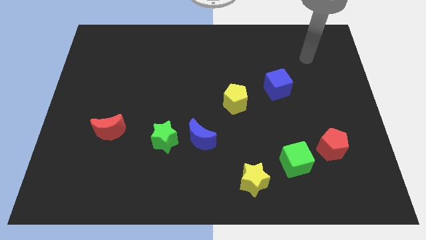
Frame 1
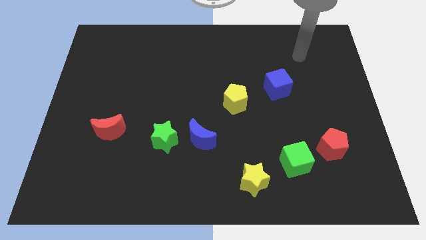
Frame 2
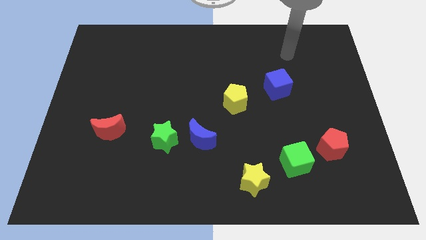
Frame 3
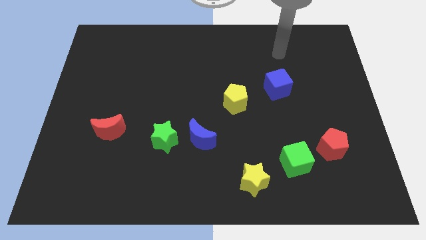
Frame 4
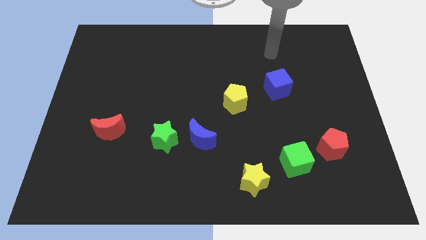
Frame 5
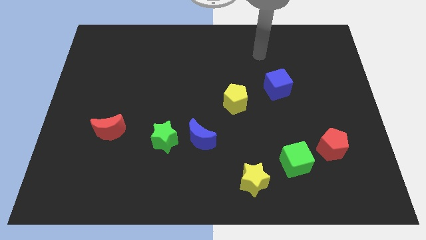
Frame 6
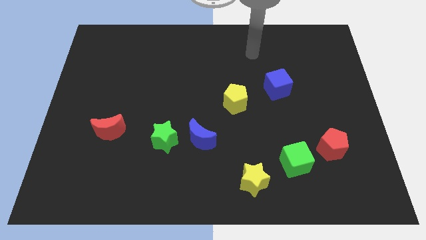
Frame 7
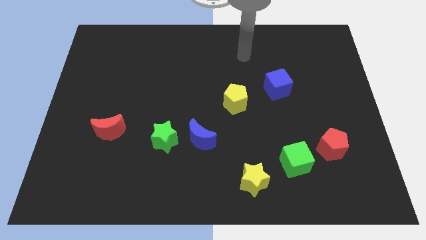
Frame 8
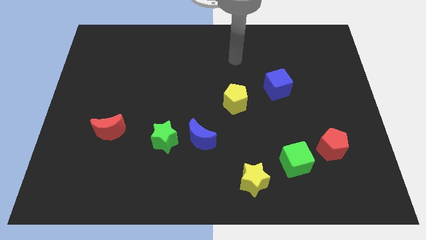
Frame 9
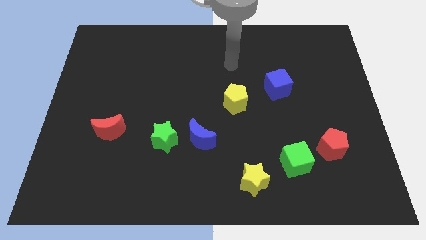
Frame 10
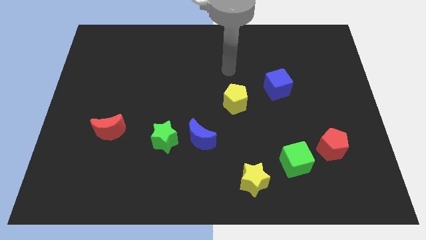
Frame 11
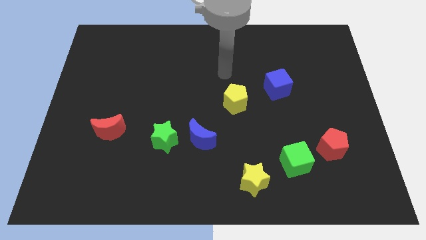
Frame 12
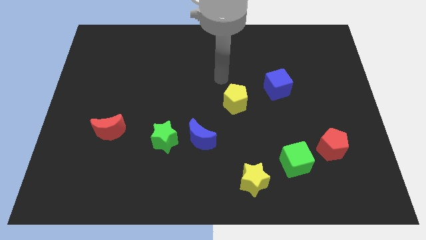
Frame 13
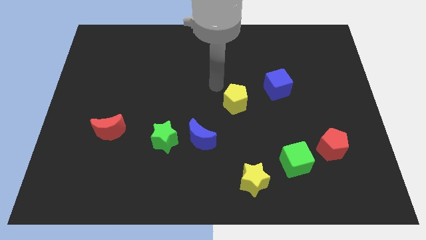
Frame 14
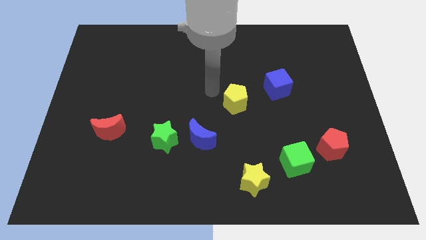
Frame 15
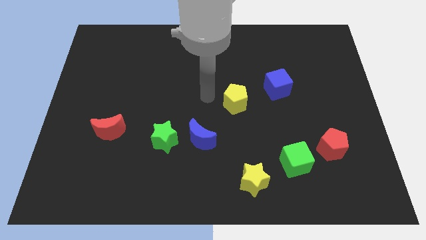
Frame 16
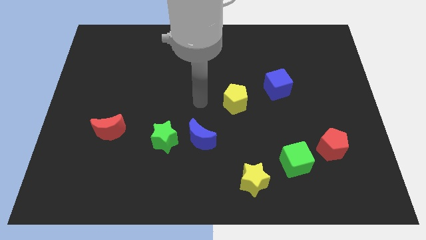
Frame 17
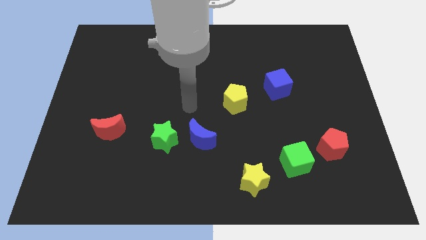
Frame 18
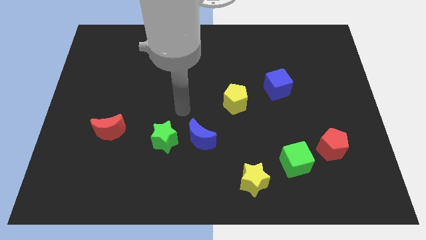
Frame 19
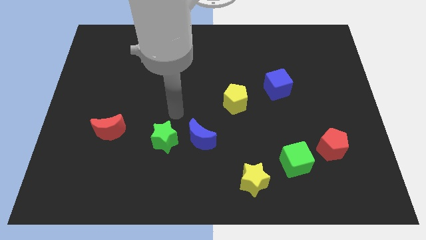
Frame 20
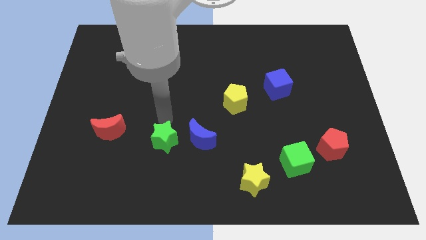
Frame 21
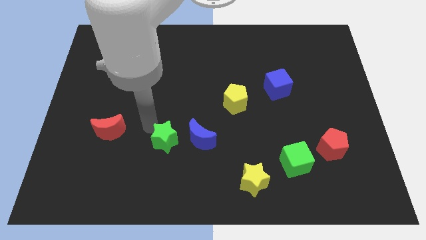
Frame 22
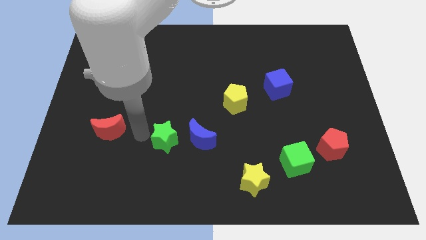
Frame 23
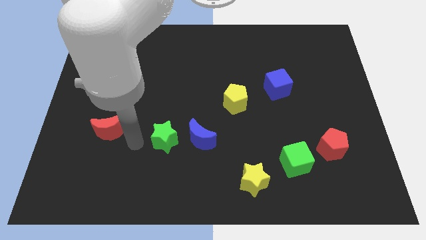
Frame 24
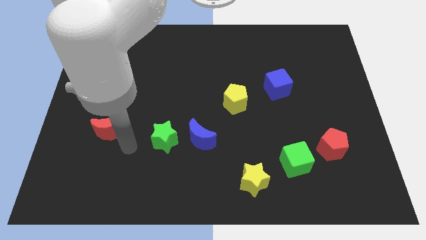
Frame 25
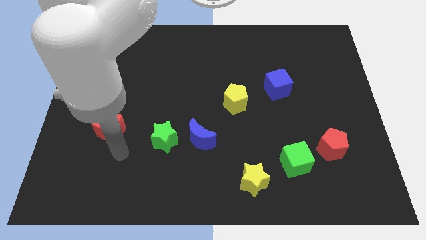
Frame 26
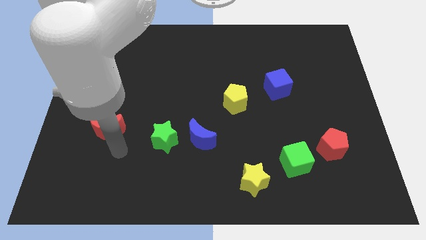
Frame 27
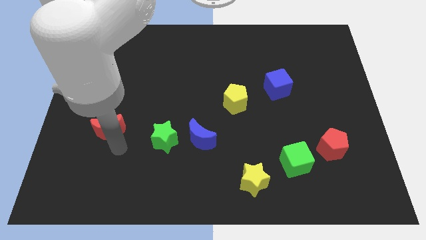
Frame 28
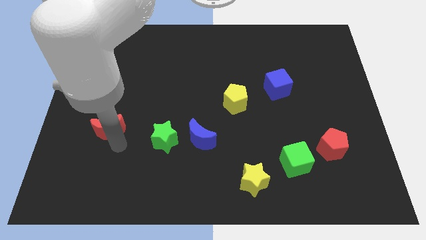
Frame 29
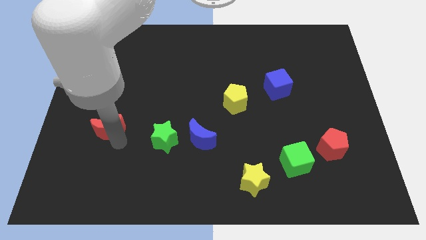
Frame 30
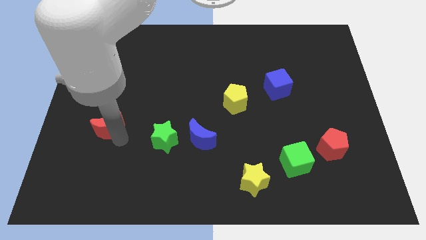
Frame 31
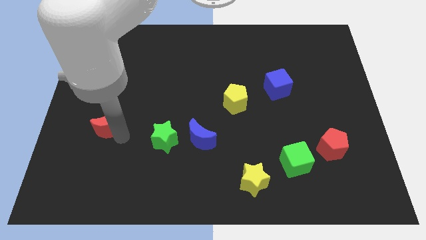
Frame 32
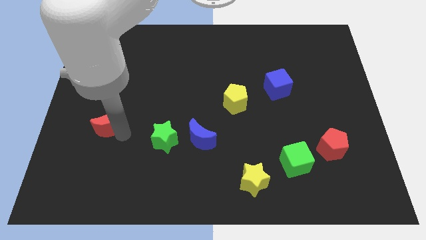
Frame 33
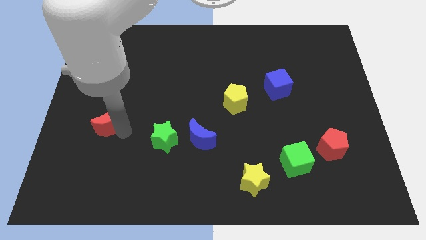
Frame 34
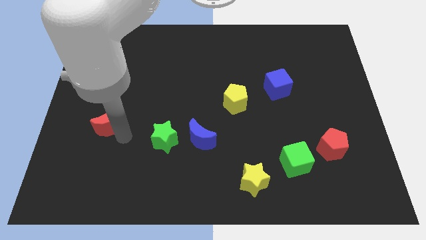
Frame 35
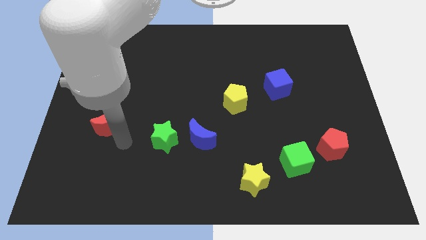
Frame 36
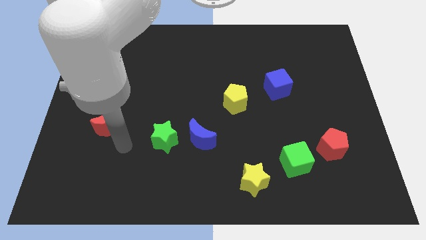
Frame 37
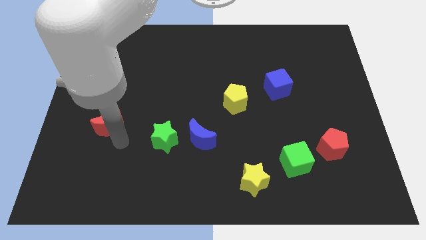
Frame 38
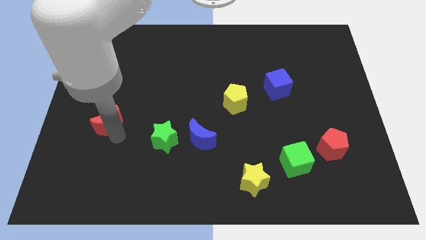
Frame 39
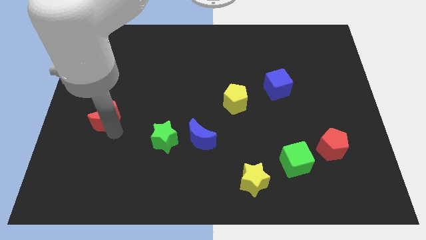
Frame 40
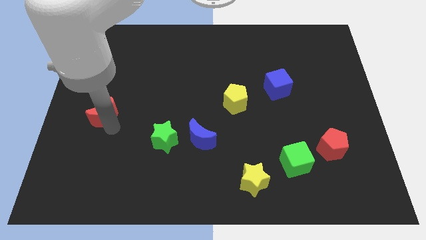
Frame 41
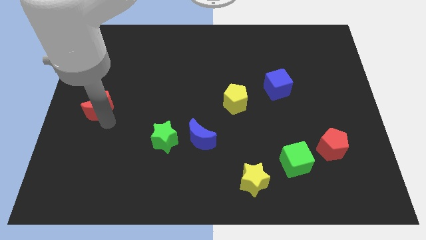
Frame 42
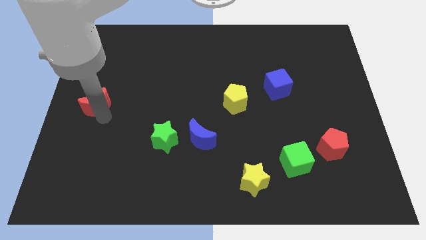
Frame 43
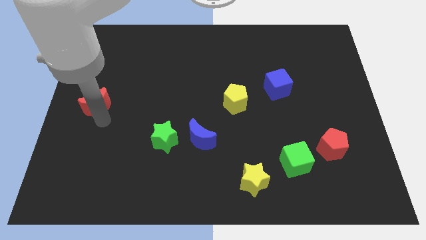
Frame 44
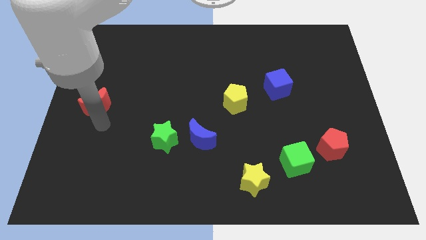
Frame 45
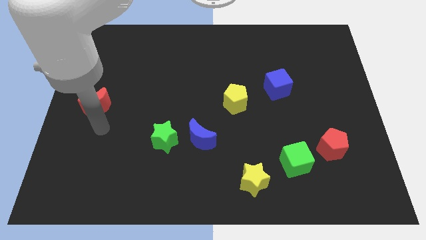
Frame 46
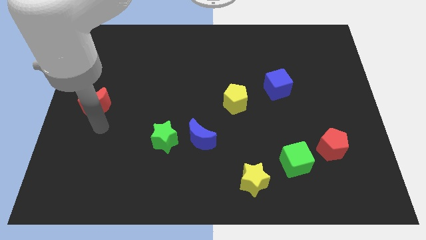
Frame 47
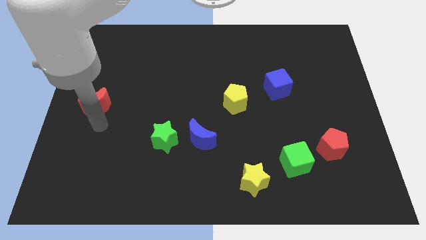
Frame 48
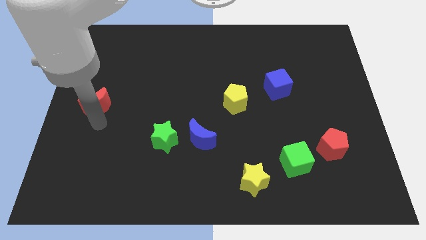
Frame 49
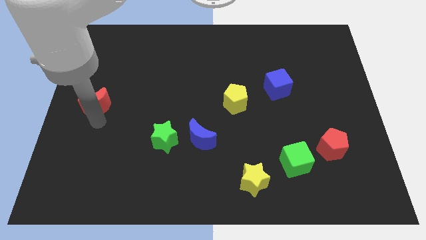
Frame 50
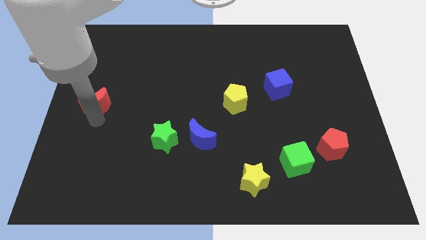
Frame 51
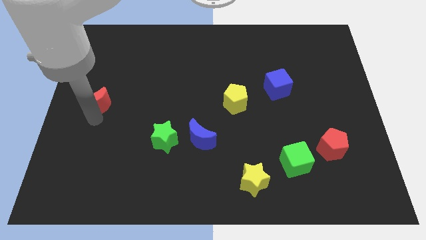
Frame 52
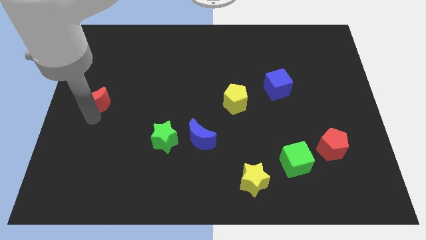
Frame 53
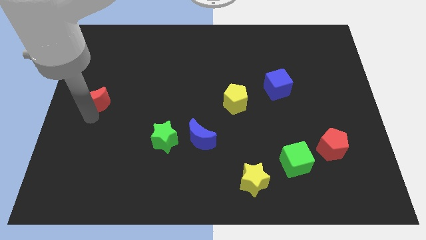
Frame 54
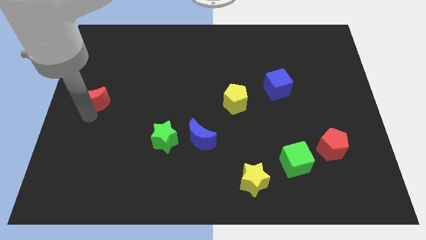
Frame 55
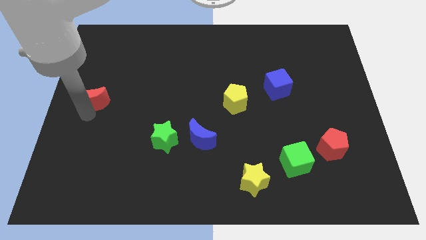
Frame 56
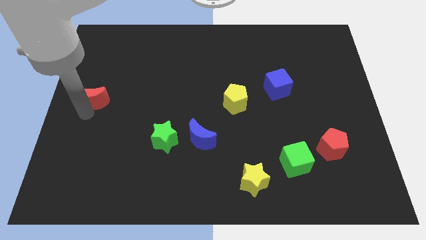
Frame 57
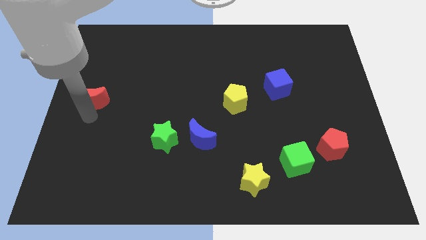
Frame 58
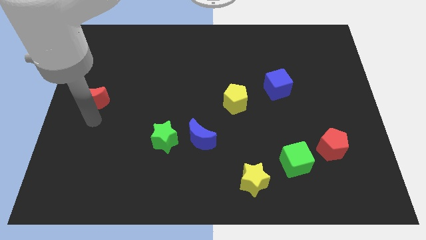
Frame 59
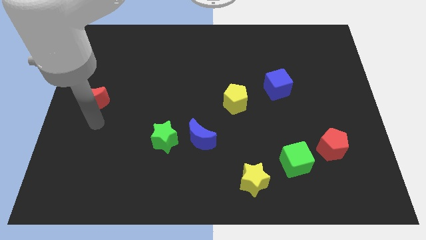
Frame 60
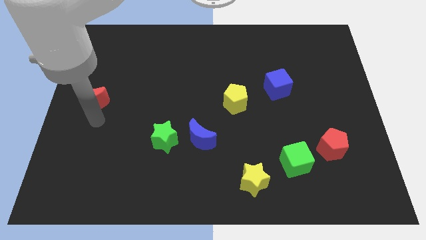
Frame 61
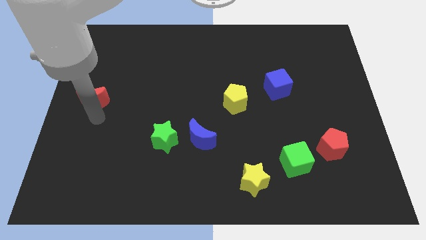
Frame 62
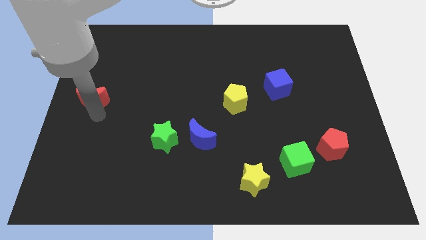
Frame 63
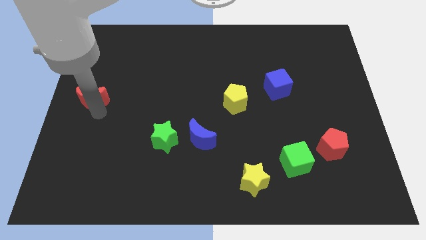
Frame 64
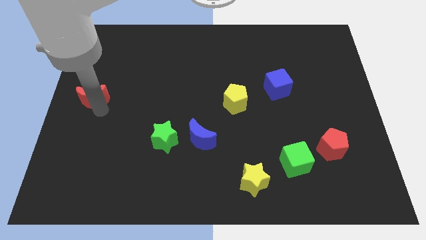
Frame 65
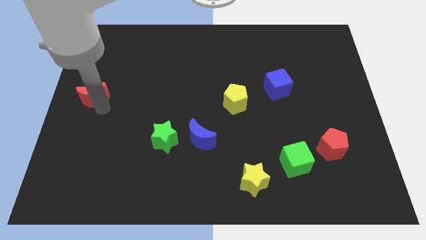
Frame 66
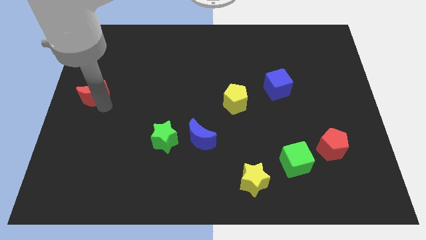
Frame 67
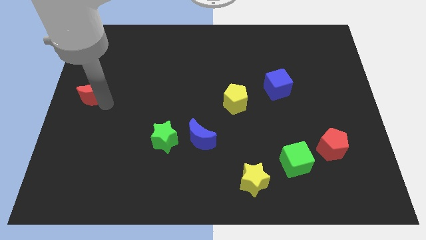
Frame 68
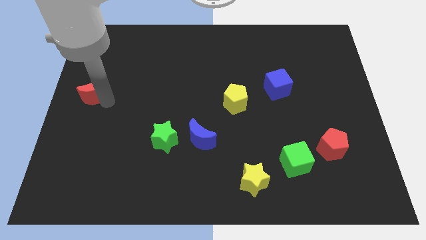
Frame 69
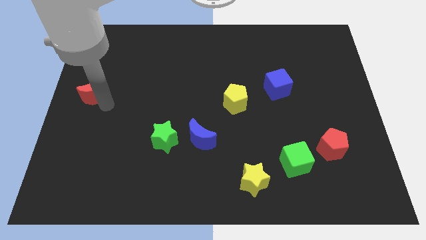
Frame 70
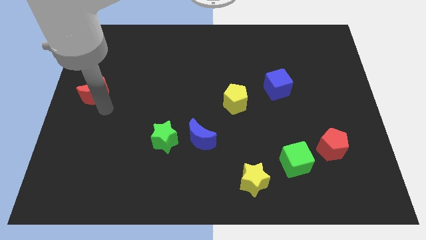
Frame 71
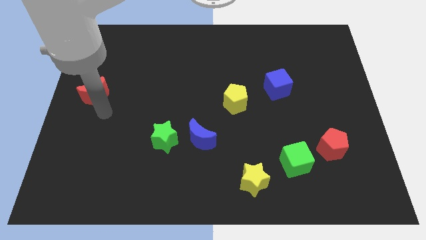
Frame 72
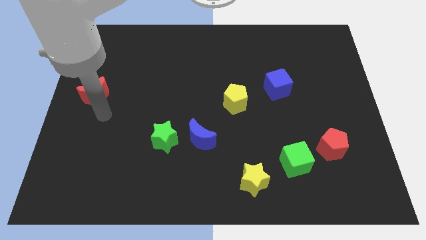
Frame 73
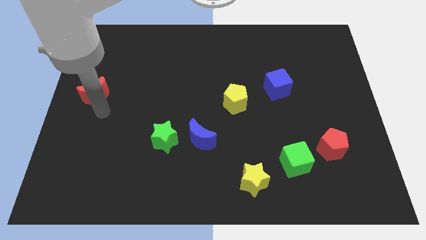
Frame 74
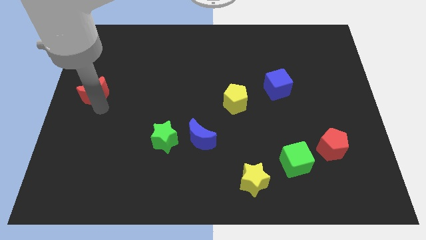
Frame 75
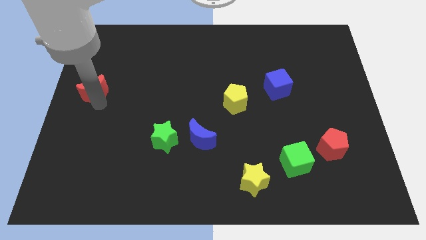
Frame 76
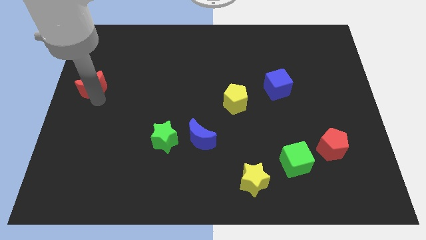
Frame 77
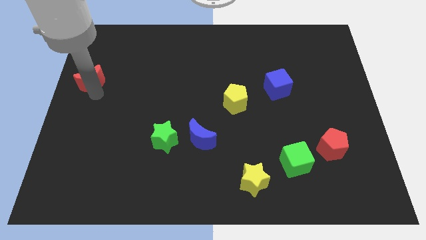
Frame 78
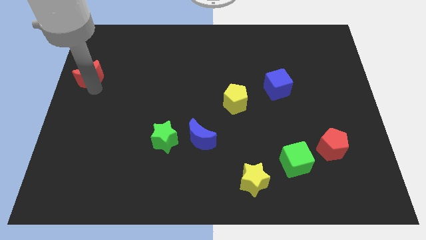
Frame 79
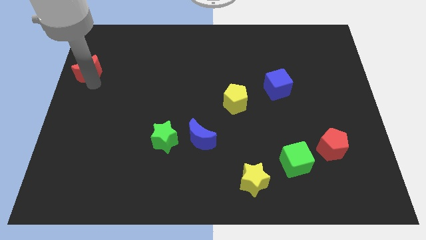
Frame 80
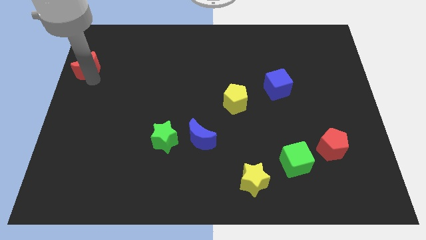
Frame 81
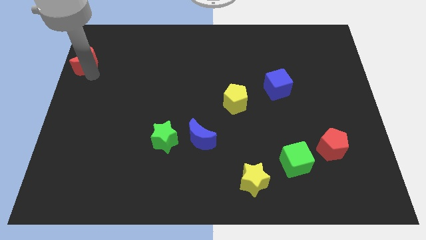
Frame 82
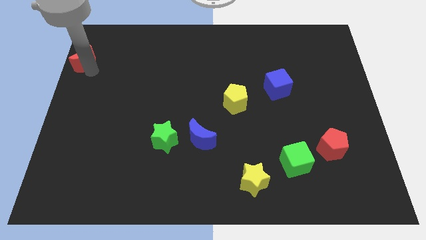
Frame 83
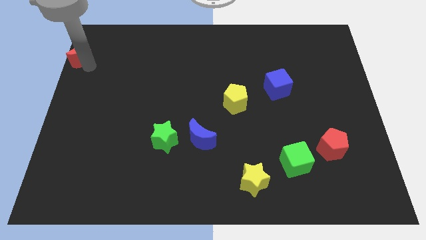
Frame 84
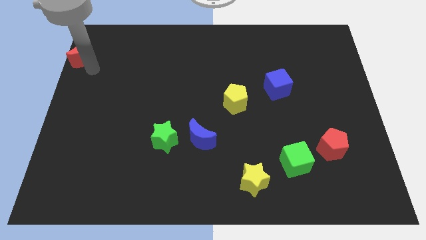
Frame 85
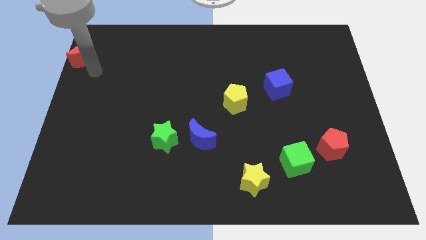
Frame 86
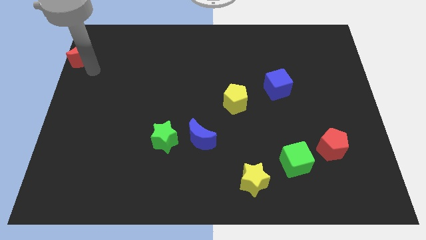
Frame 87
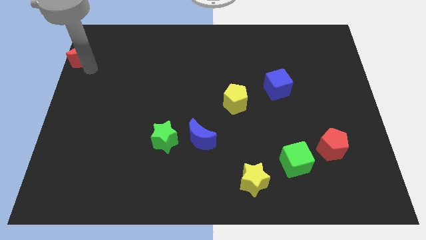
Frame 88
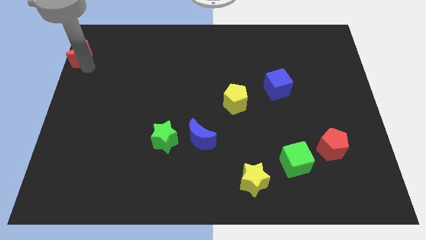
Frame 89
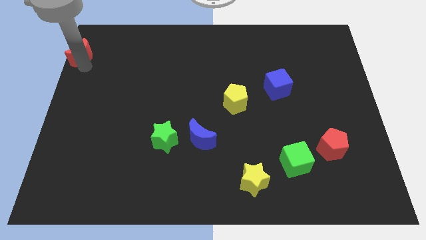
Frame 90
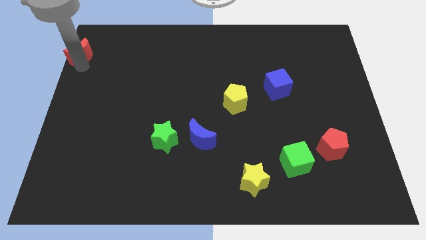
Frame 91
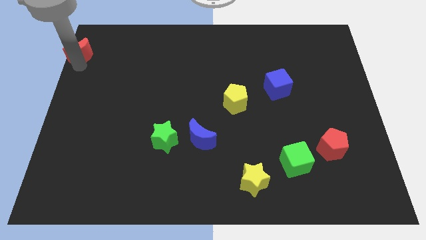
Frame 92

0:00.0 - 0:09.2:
slide the red moon to the top left of the board
